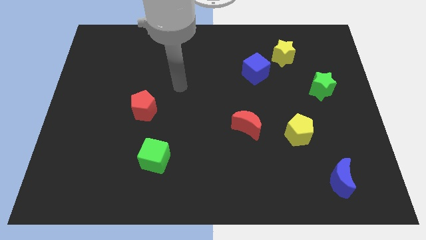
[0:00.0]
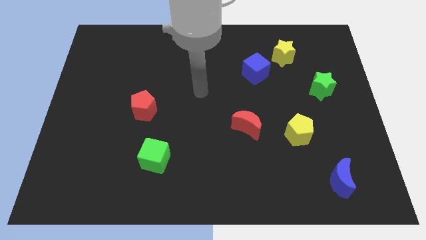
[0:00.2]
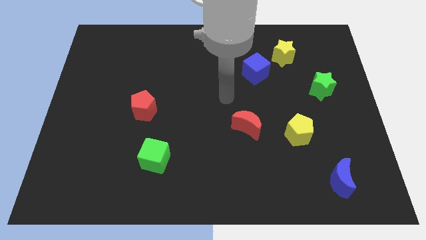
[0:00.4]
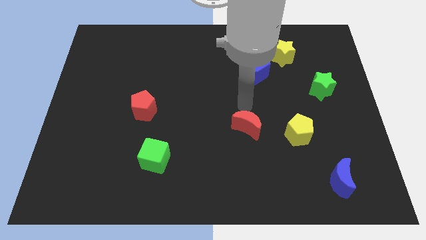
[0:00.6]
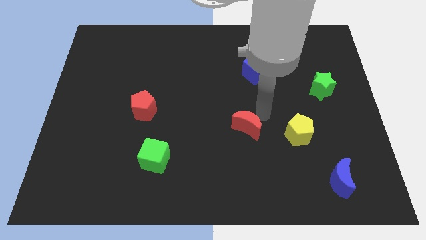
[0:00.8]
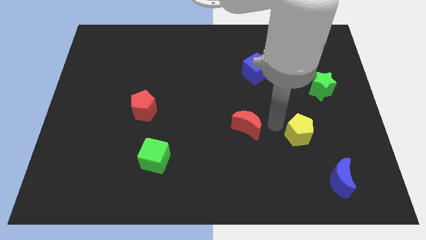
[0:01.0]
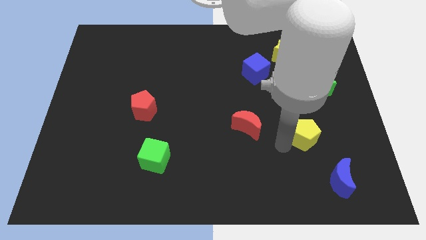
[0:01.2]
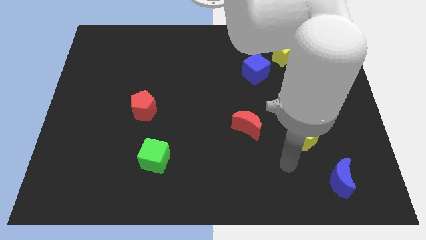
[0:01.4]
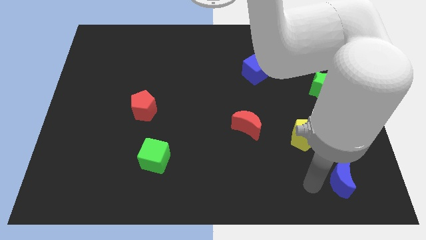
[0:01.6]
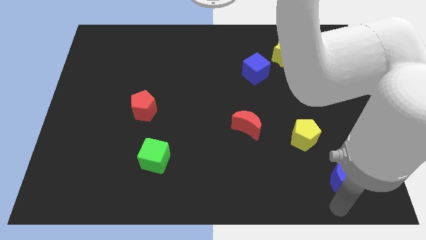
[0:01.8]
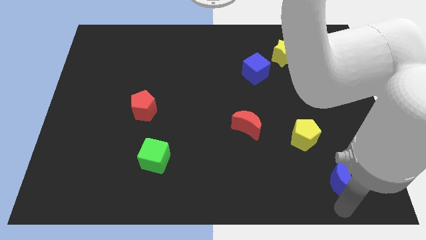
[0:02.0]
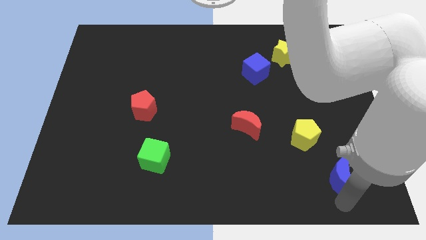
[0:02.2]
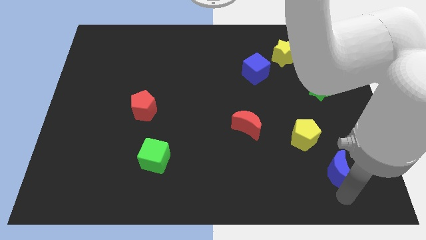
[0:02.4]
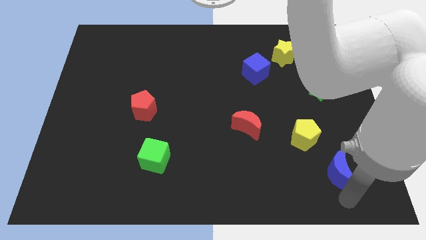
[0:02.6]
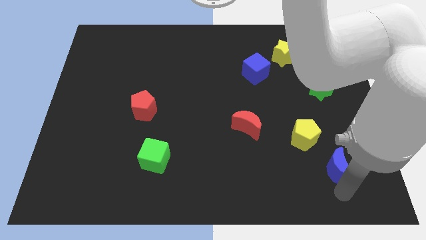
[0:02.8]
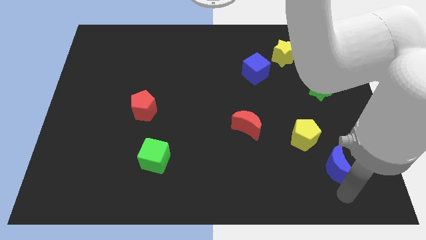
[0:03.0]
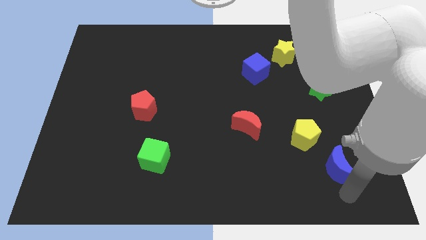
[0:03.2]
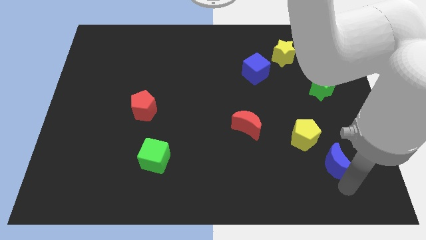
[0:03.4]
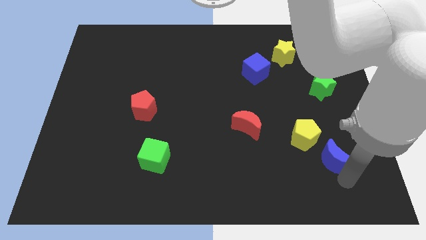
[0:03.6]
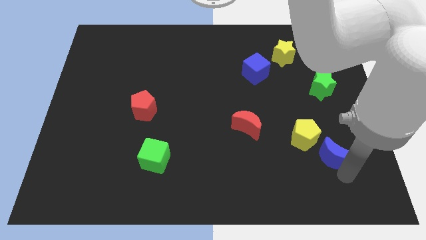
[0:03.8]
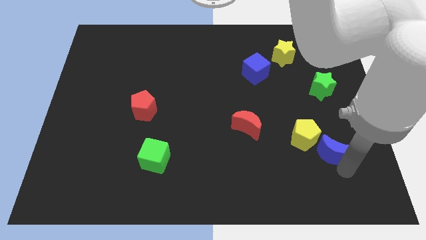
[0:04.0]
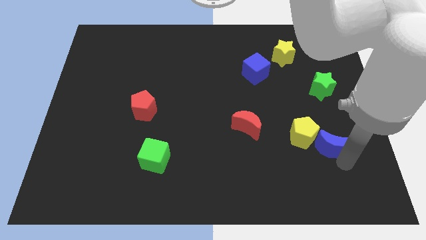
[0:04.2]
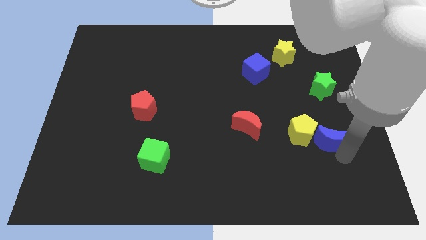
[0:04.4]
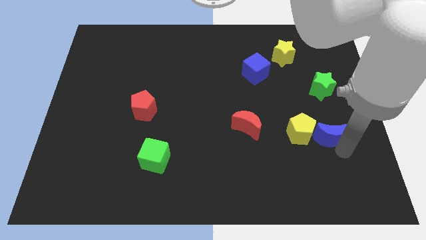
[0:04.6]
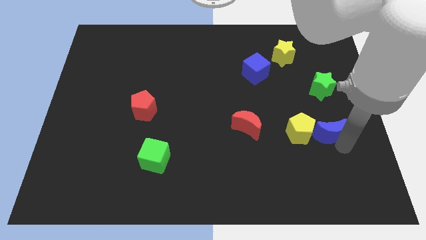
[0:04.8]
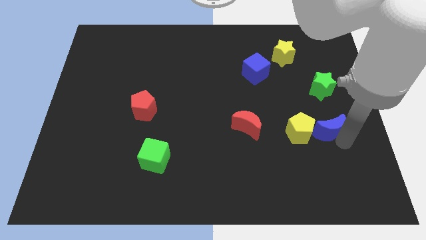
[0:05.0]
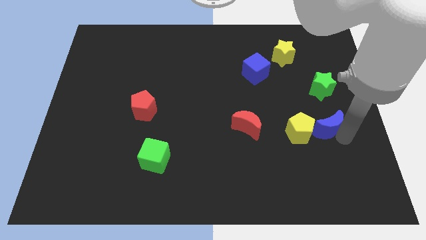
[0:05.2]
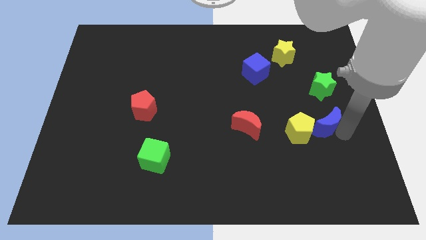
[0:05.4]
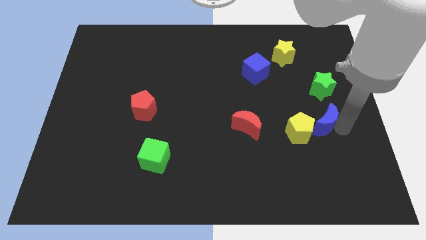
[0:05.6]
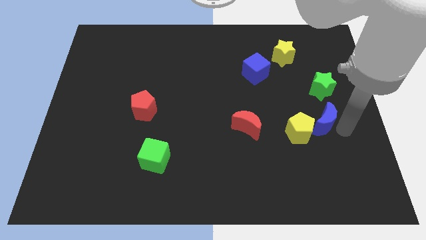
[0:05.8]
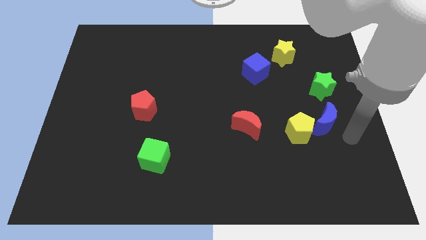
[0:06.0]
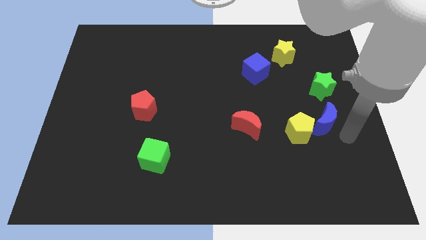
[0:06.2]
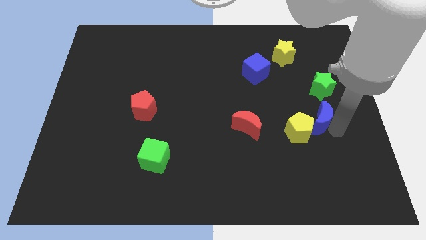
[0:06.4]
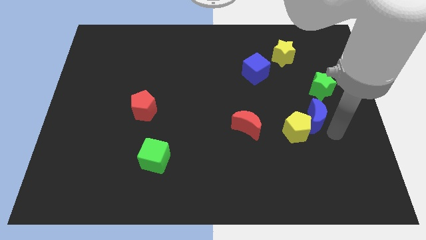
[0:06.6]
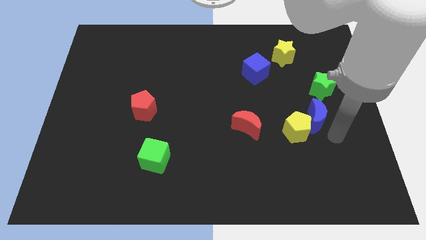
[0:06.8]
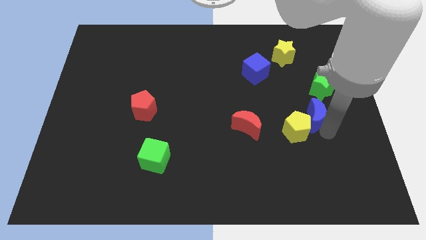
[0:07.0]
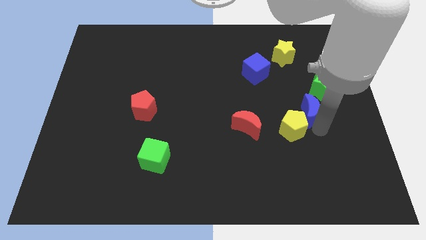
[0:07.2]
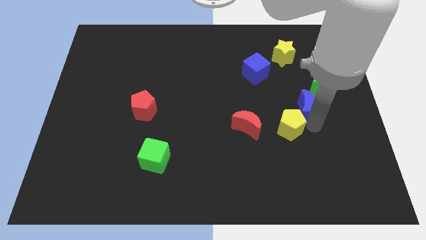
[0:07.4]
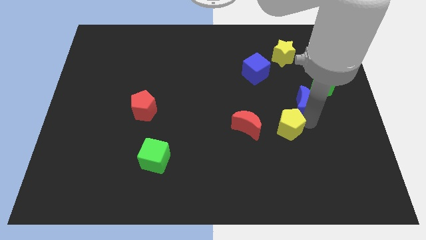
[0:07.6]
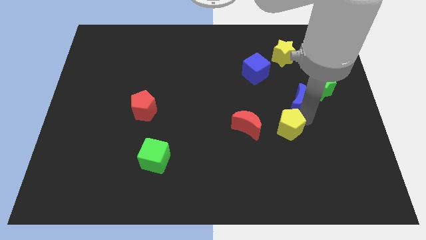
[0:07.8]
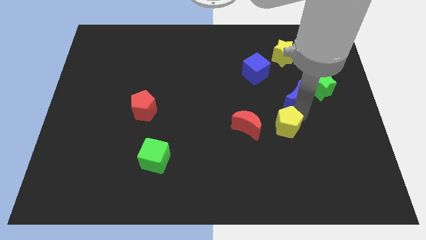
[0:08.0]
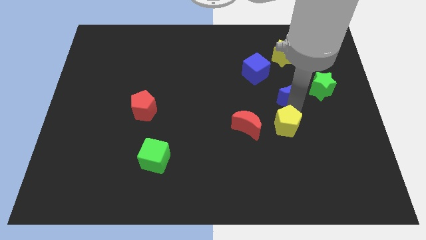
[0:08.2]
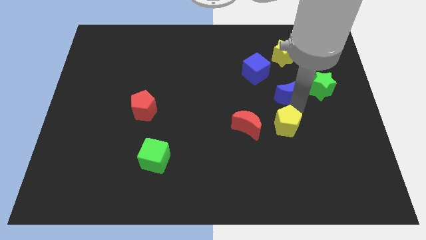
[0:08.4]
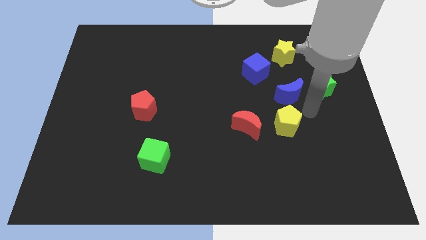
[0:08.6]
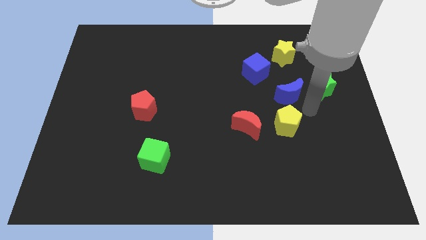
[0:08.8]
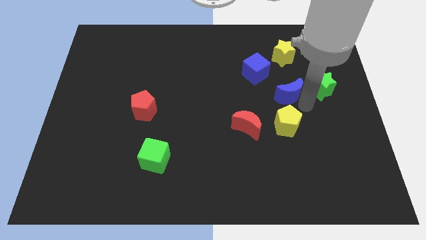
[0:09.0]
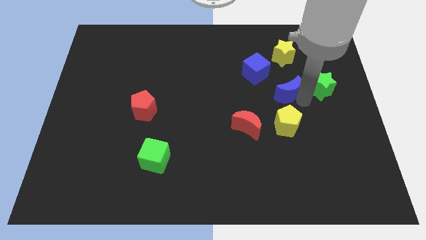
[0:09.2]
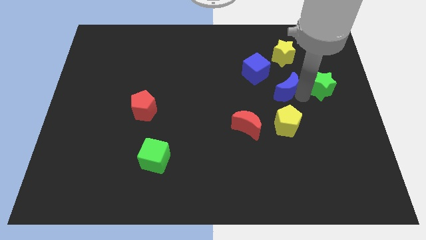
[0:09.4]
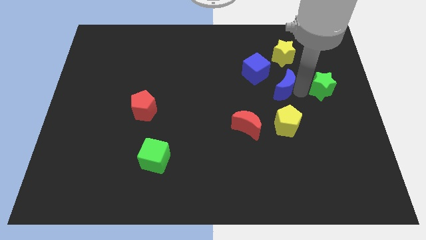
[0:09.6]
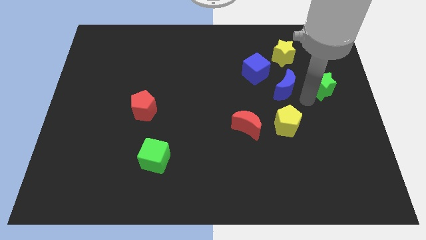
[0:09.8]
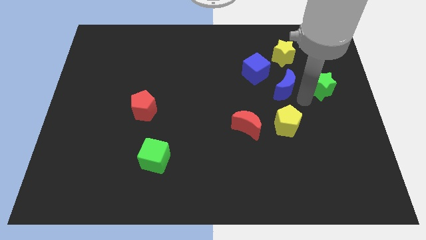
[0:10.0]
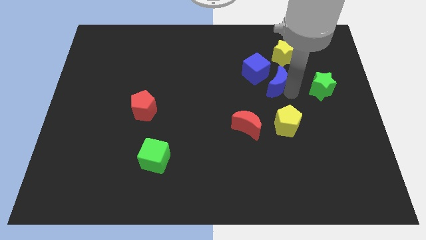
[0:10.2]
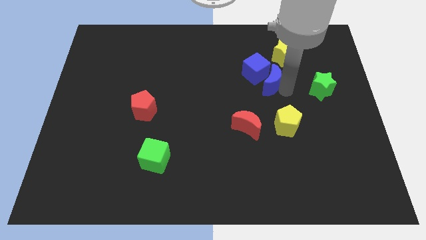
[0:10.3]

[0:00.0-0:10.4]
move the blue moon close to the blue cube

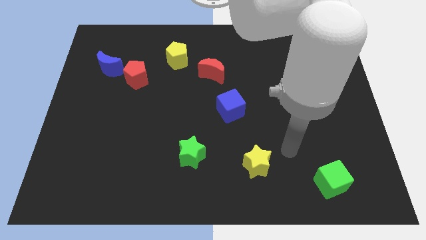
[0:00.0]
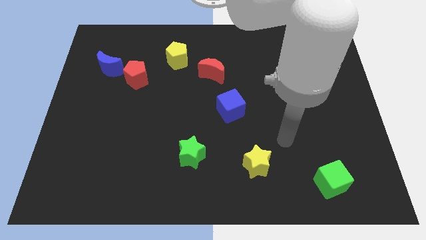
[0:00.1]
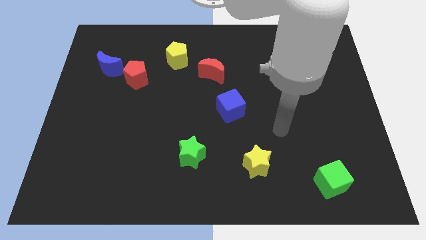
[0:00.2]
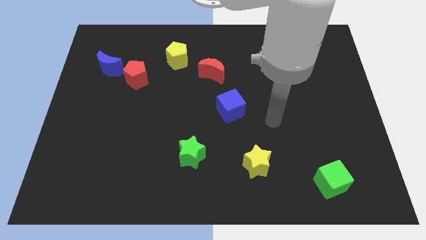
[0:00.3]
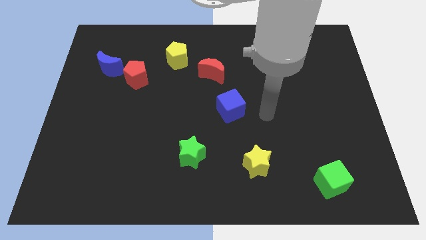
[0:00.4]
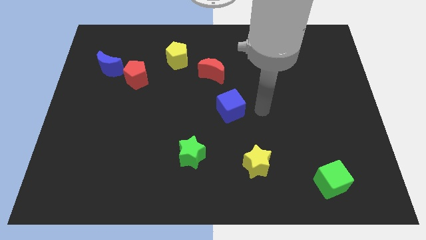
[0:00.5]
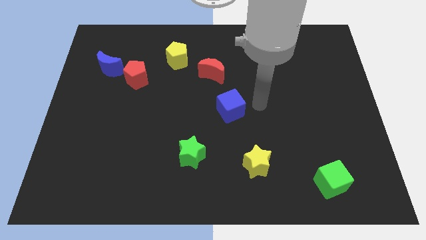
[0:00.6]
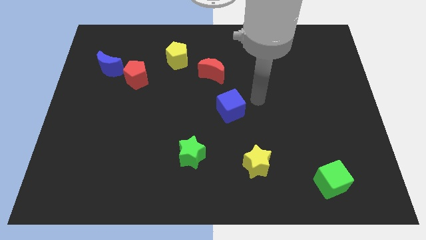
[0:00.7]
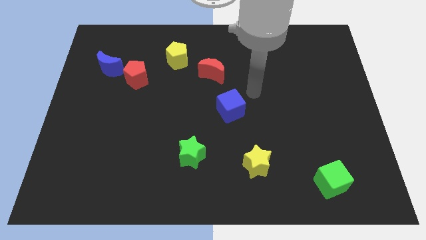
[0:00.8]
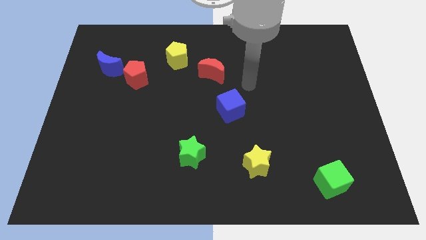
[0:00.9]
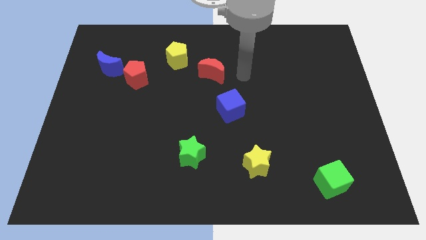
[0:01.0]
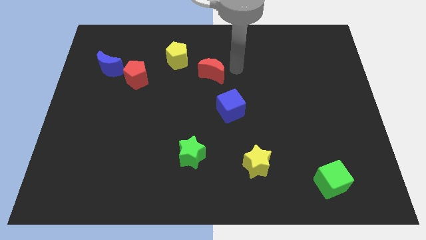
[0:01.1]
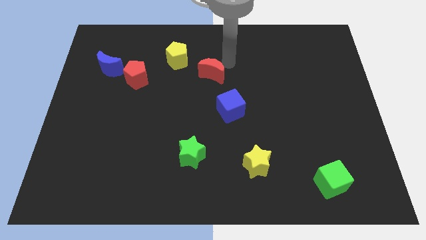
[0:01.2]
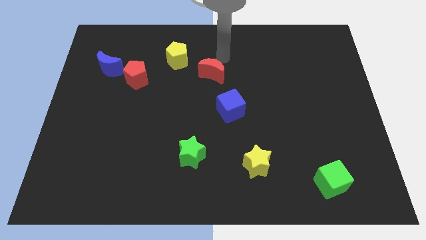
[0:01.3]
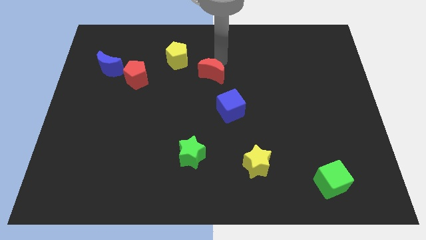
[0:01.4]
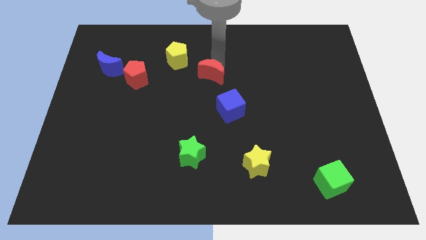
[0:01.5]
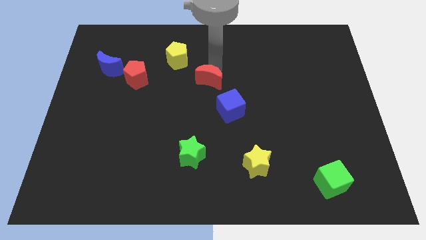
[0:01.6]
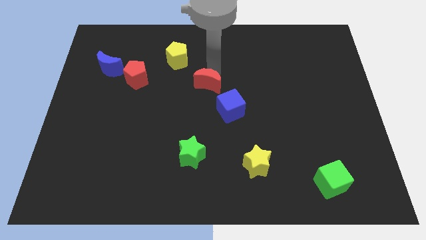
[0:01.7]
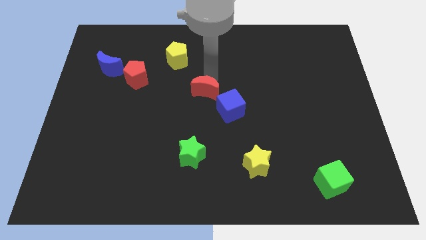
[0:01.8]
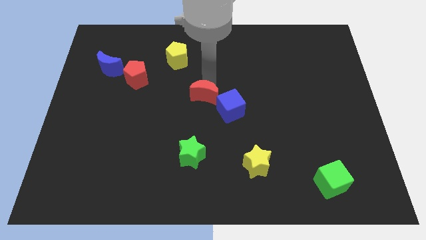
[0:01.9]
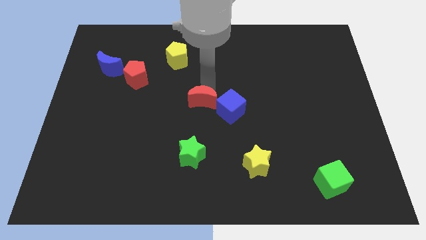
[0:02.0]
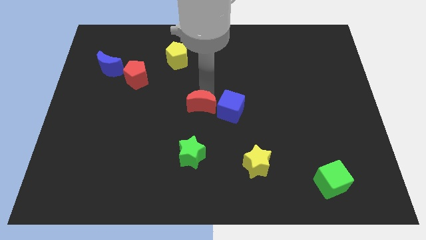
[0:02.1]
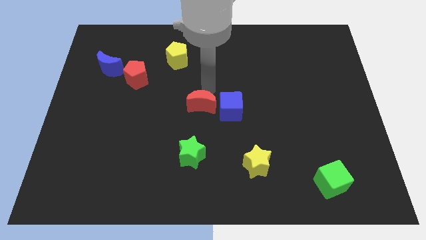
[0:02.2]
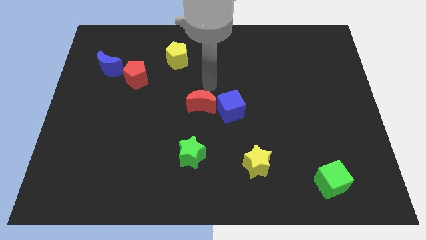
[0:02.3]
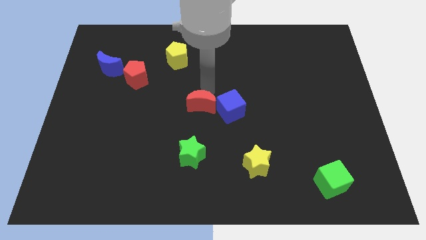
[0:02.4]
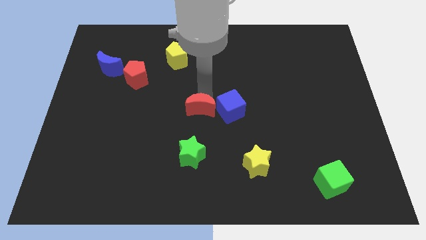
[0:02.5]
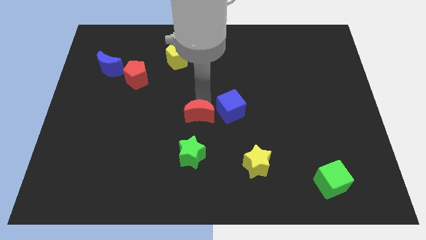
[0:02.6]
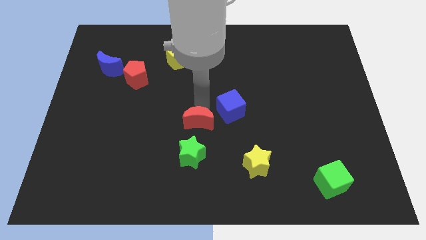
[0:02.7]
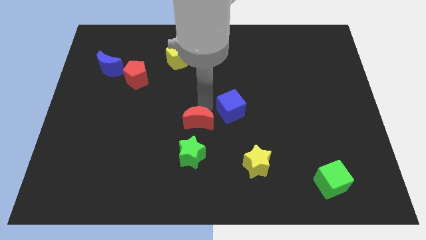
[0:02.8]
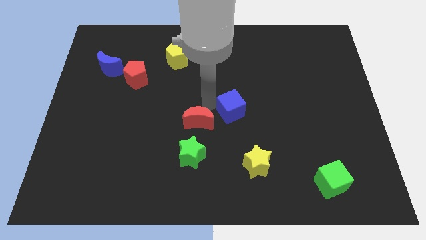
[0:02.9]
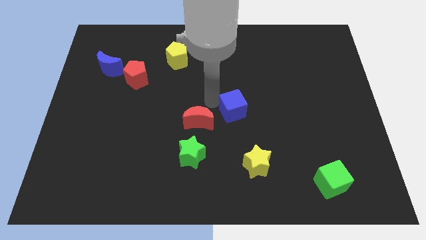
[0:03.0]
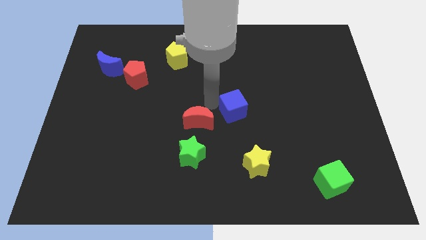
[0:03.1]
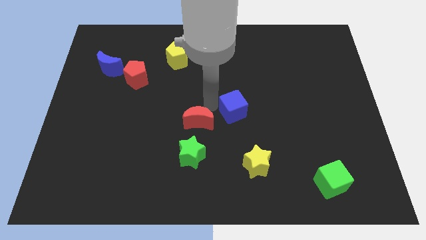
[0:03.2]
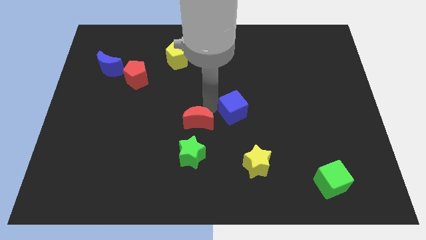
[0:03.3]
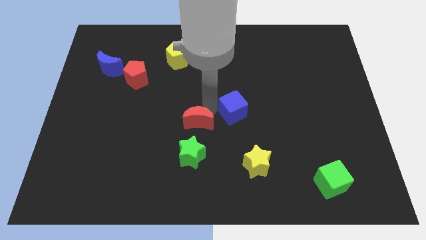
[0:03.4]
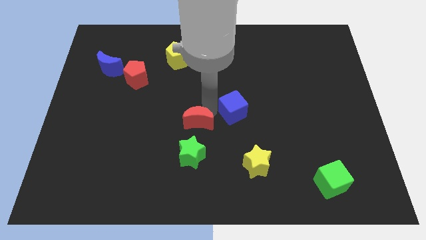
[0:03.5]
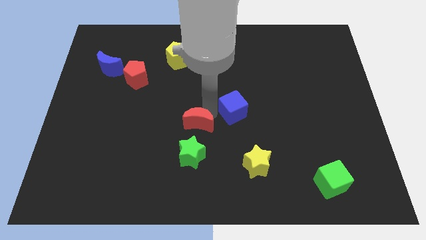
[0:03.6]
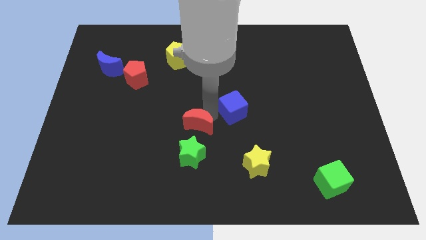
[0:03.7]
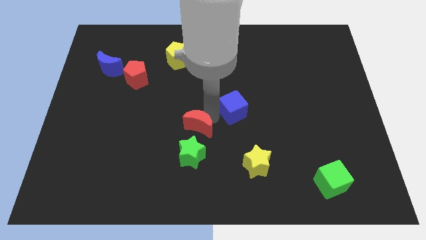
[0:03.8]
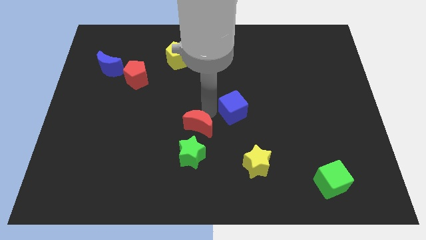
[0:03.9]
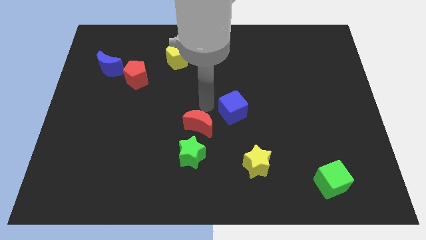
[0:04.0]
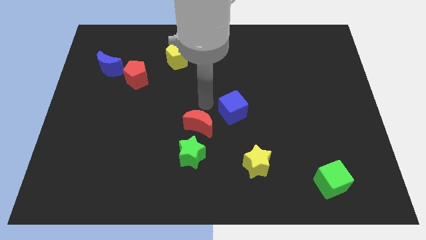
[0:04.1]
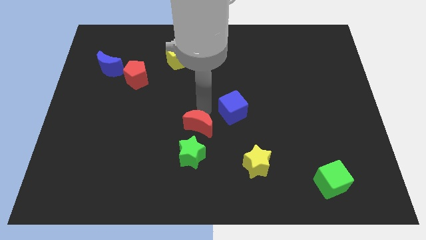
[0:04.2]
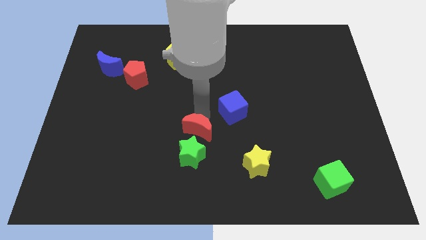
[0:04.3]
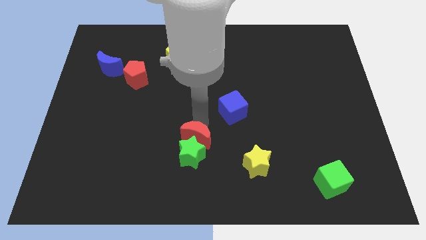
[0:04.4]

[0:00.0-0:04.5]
move the red moon next to the green star
